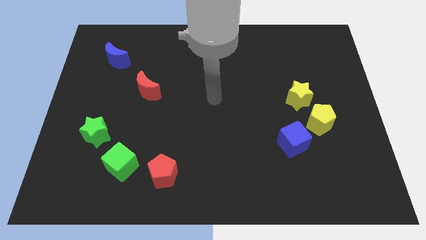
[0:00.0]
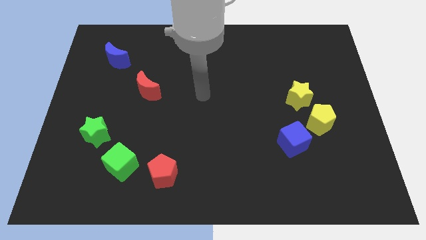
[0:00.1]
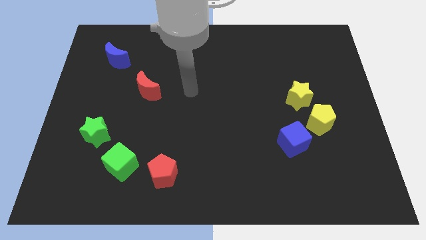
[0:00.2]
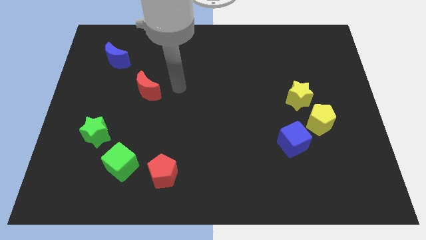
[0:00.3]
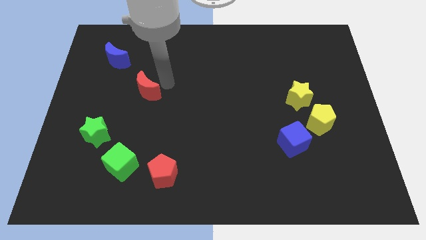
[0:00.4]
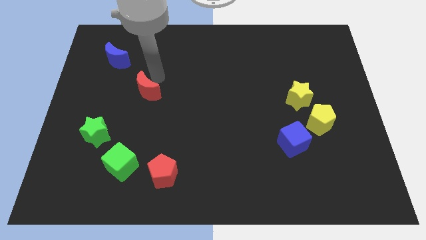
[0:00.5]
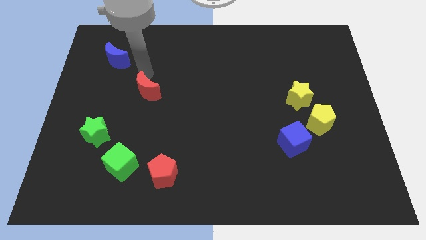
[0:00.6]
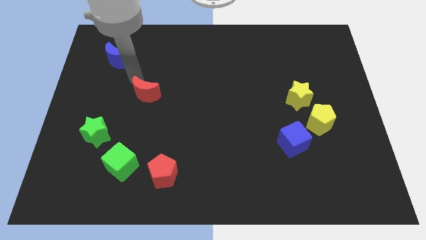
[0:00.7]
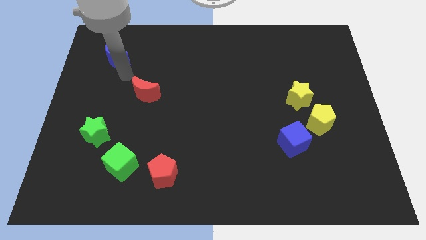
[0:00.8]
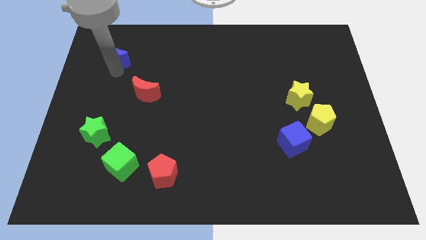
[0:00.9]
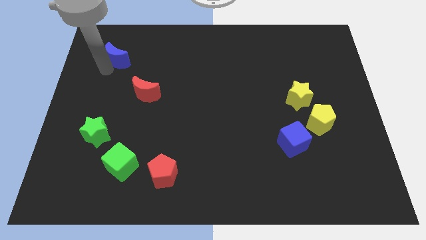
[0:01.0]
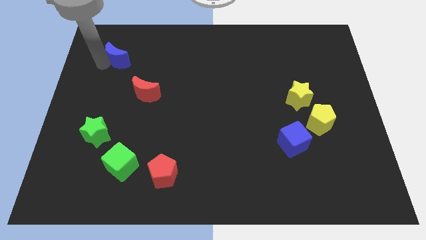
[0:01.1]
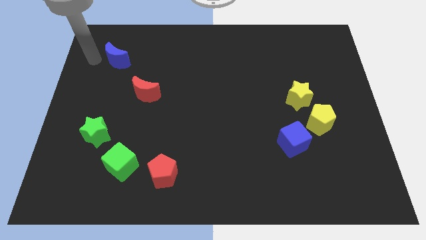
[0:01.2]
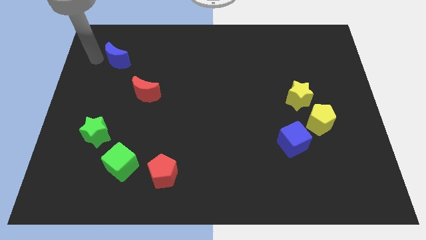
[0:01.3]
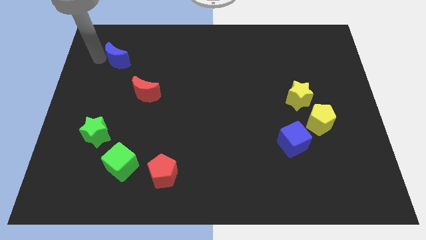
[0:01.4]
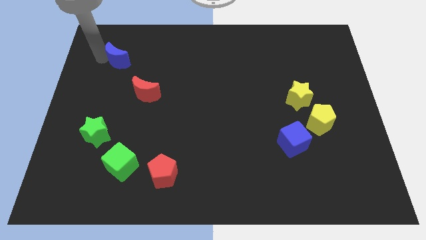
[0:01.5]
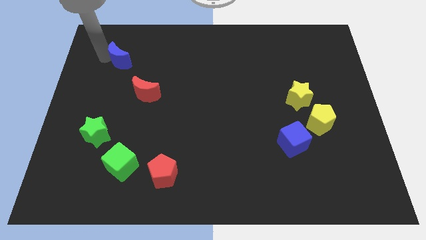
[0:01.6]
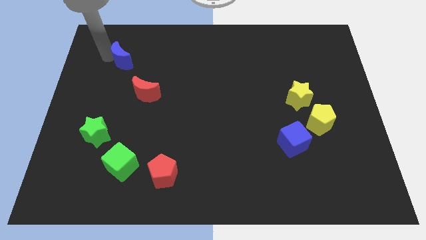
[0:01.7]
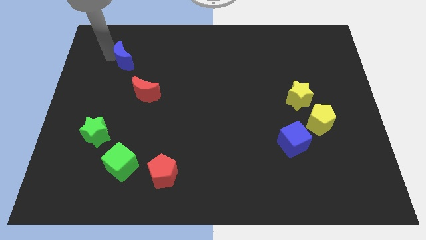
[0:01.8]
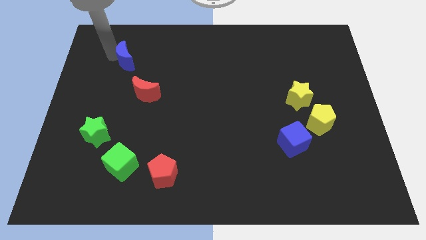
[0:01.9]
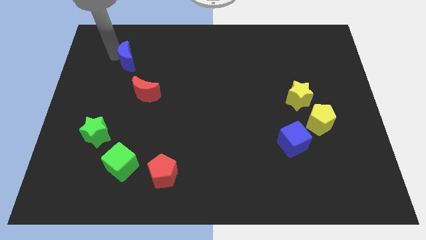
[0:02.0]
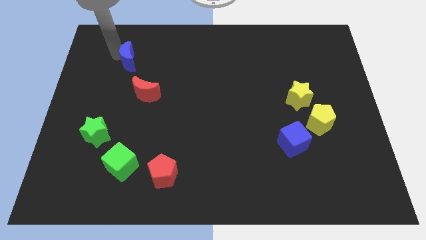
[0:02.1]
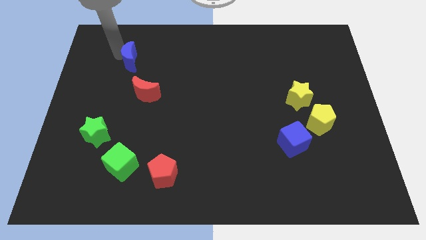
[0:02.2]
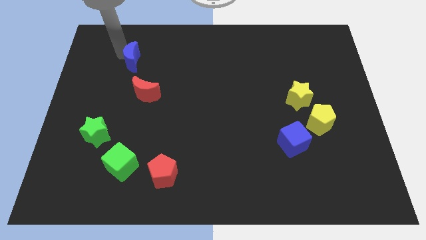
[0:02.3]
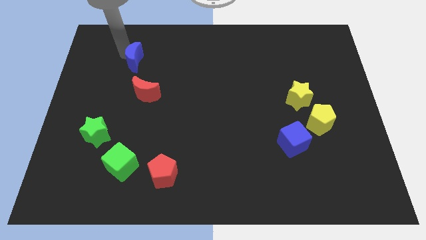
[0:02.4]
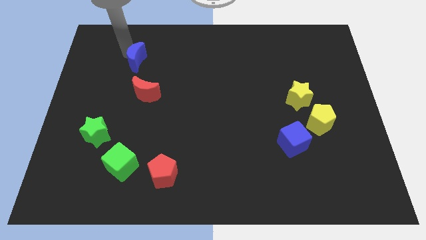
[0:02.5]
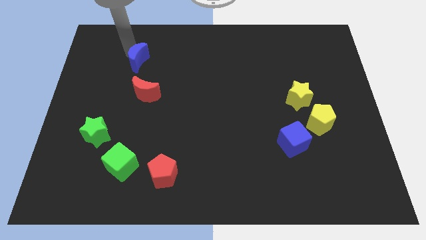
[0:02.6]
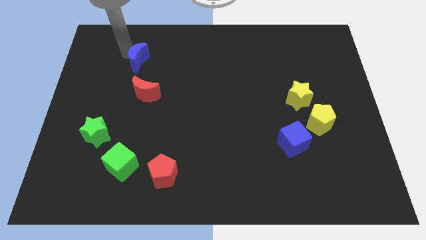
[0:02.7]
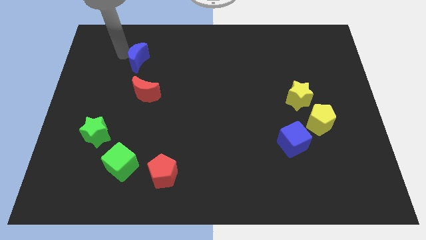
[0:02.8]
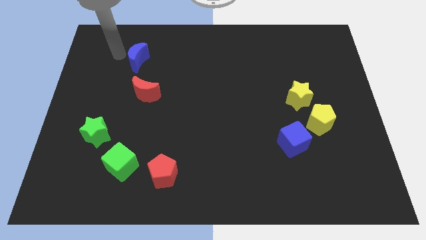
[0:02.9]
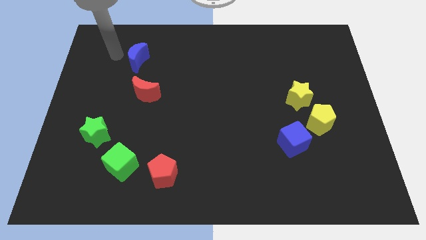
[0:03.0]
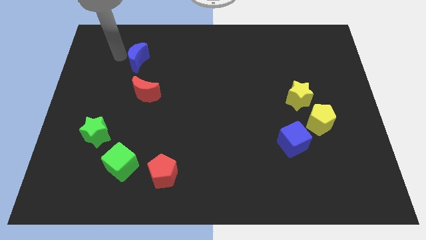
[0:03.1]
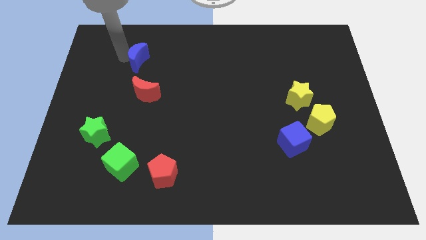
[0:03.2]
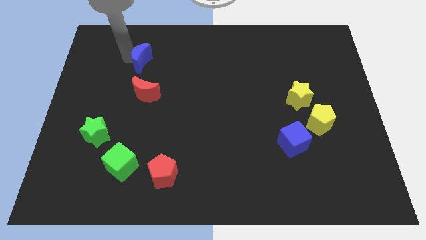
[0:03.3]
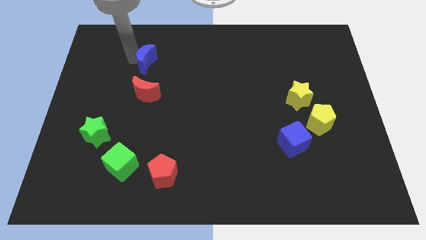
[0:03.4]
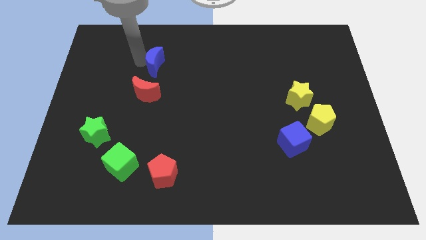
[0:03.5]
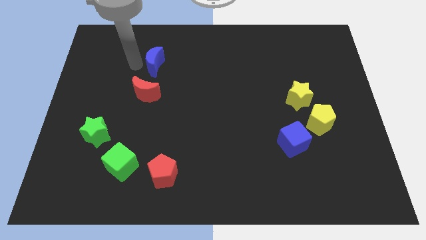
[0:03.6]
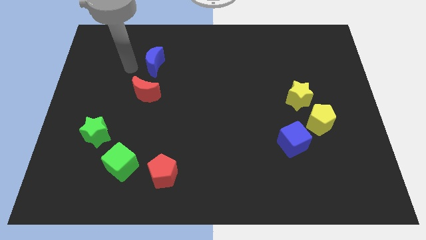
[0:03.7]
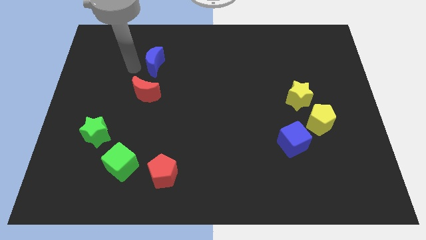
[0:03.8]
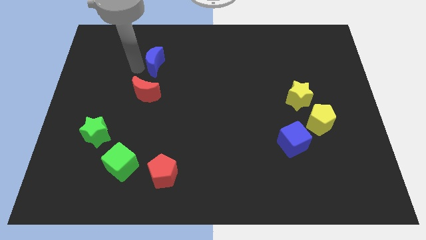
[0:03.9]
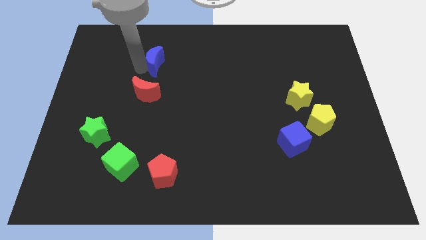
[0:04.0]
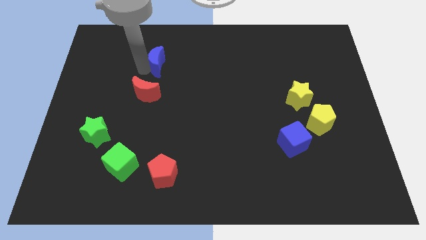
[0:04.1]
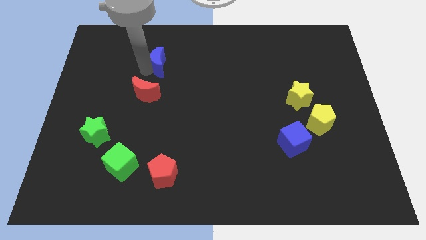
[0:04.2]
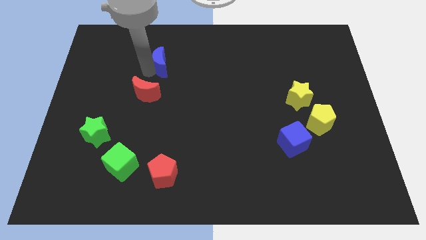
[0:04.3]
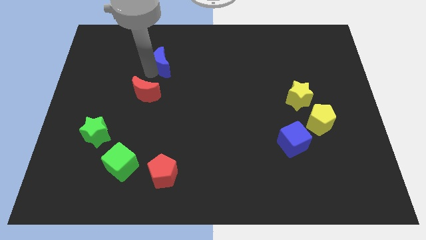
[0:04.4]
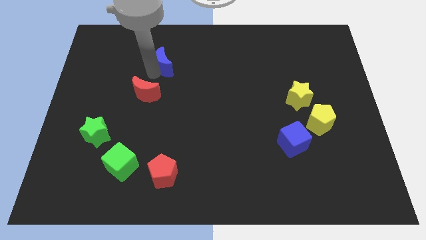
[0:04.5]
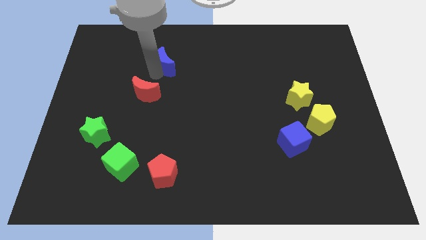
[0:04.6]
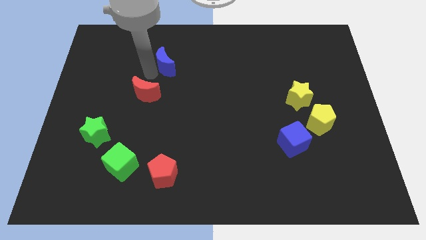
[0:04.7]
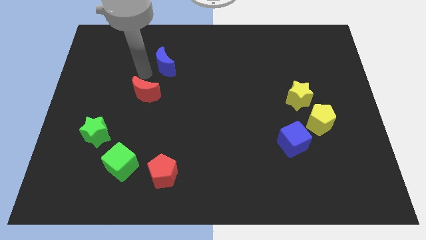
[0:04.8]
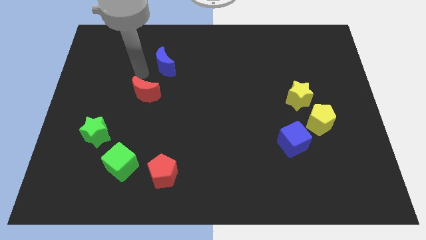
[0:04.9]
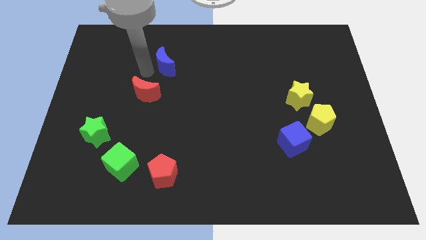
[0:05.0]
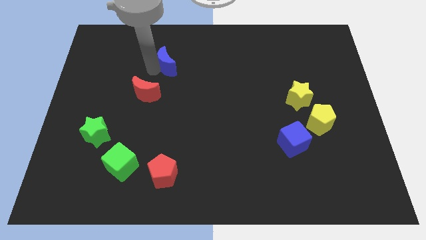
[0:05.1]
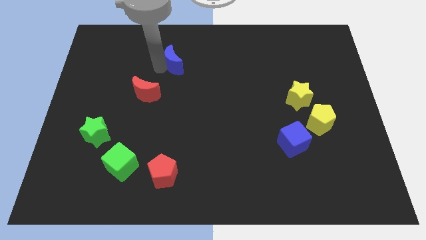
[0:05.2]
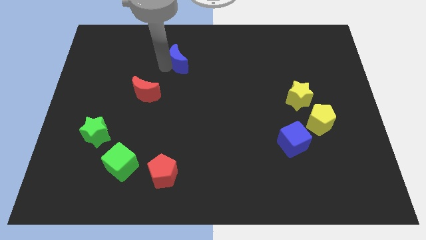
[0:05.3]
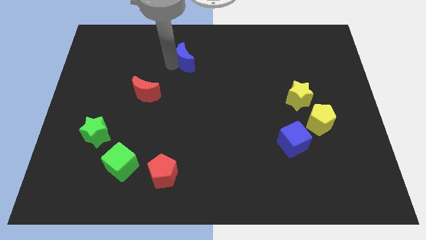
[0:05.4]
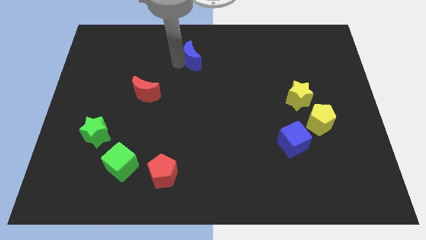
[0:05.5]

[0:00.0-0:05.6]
move the blue moon to the right

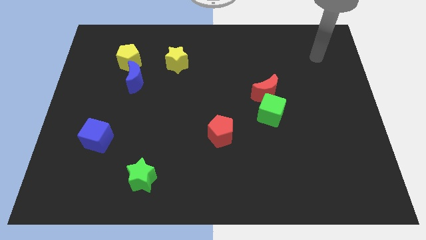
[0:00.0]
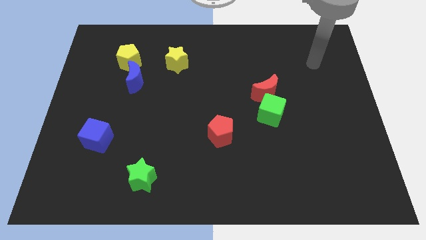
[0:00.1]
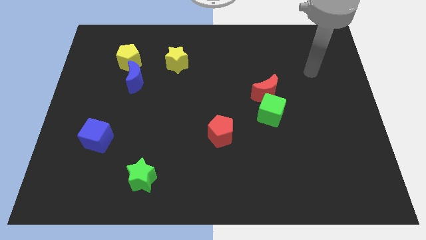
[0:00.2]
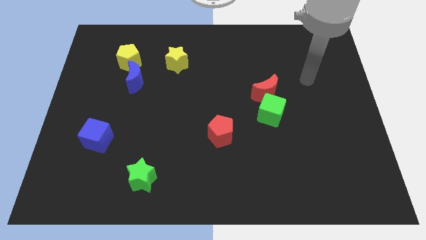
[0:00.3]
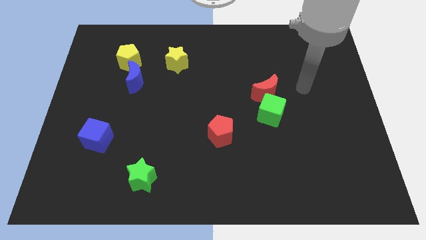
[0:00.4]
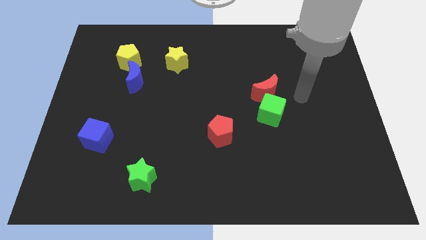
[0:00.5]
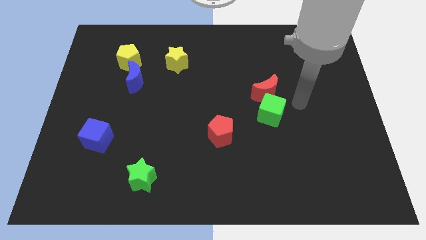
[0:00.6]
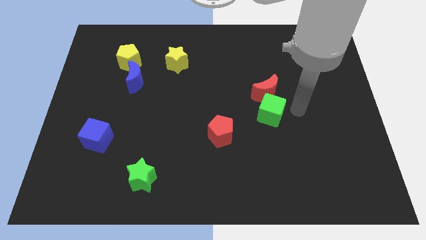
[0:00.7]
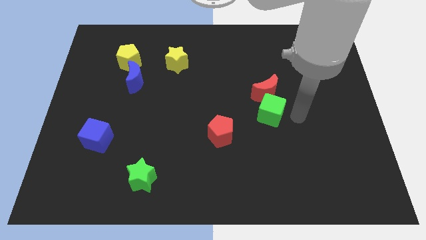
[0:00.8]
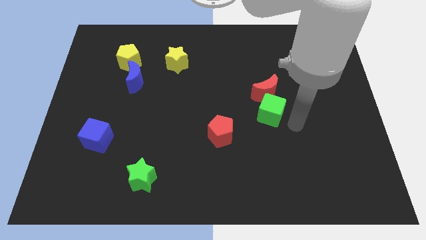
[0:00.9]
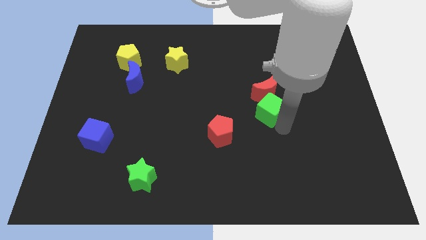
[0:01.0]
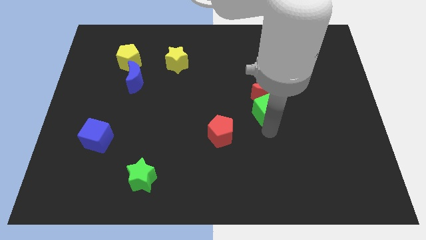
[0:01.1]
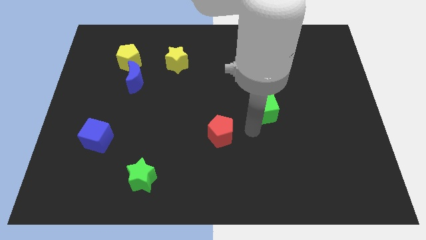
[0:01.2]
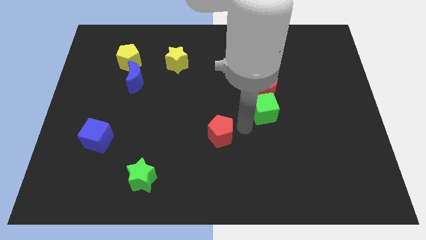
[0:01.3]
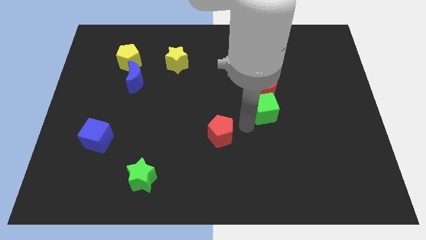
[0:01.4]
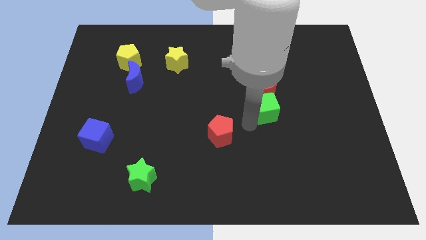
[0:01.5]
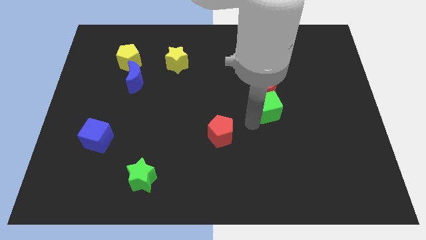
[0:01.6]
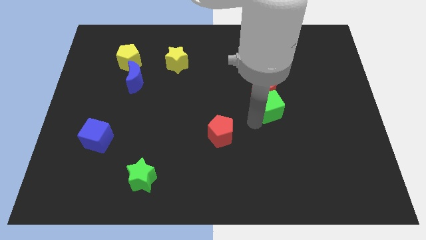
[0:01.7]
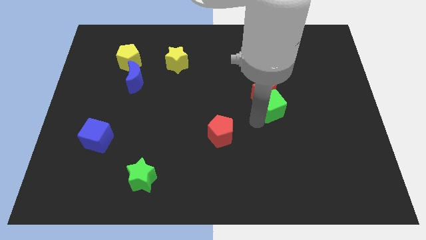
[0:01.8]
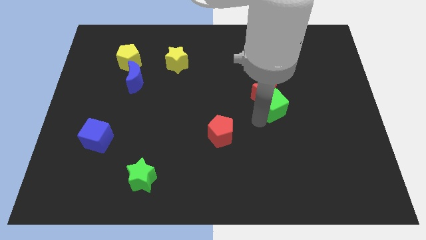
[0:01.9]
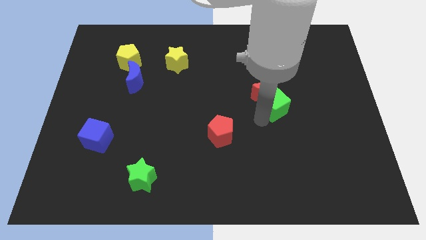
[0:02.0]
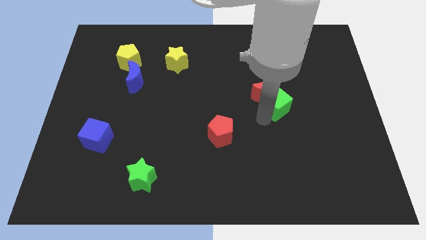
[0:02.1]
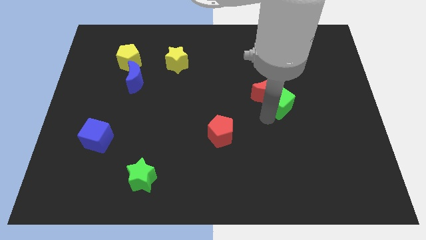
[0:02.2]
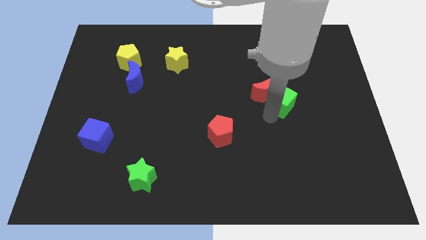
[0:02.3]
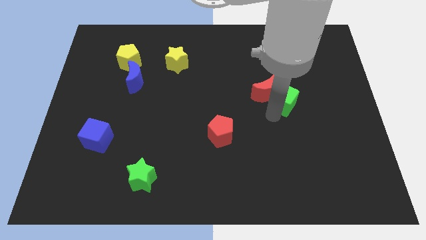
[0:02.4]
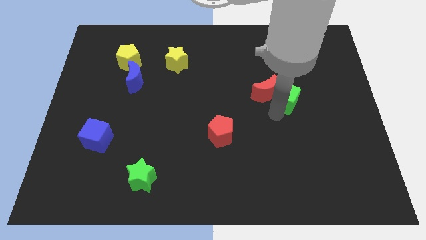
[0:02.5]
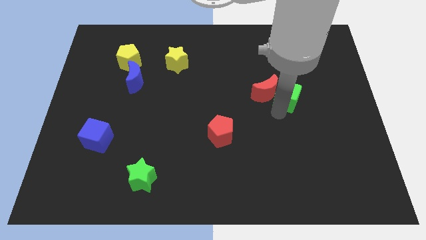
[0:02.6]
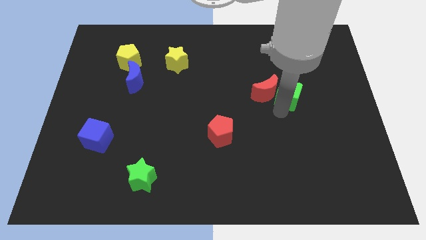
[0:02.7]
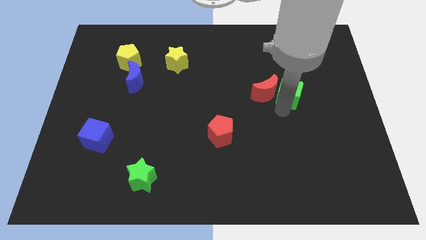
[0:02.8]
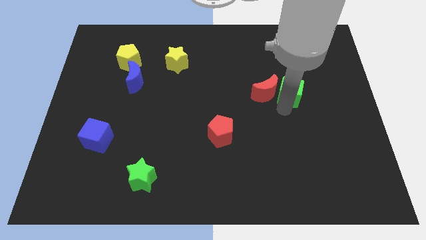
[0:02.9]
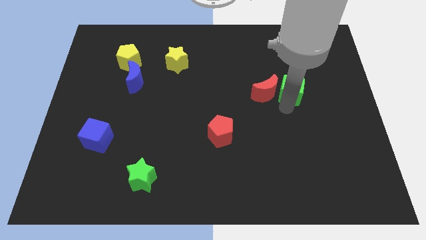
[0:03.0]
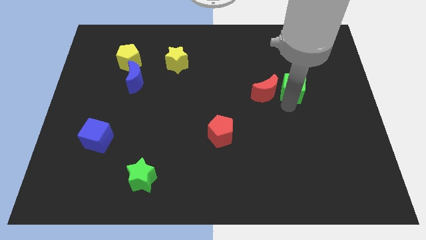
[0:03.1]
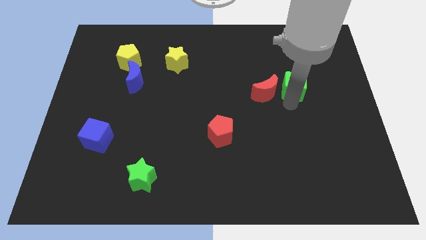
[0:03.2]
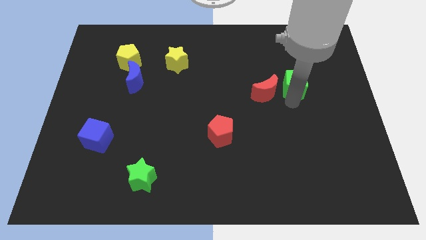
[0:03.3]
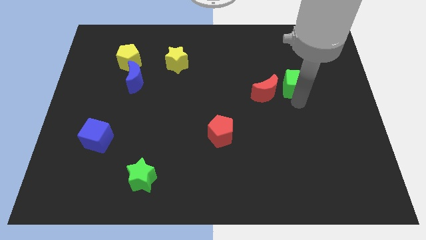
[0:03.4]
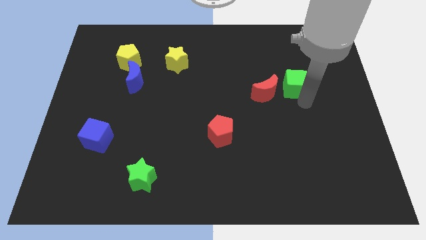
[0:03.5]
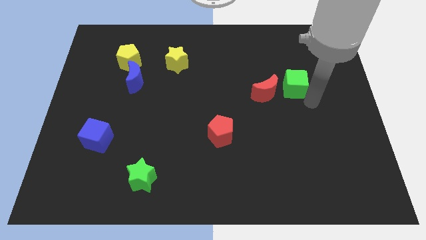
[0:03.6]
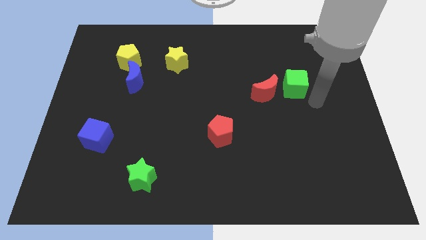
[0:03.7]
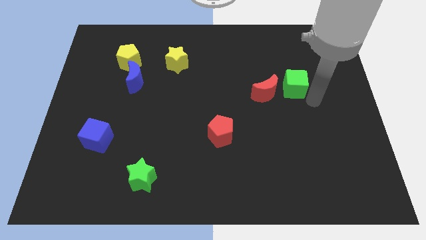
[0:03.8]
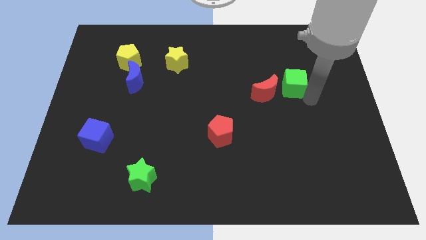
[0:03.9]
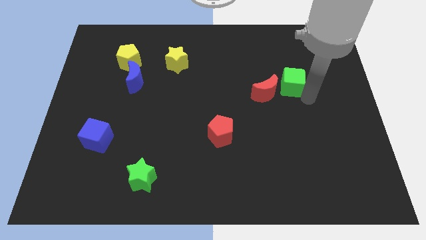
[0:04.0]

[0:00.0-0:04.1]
slightly slide the green cube up
